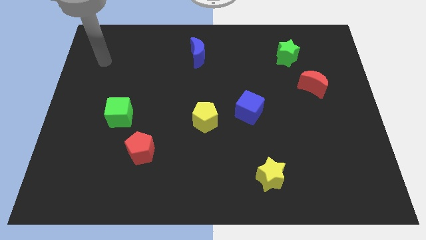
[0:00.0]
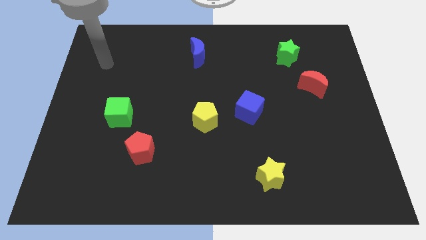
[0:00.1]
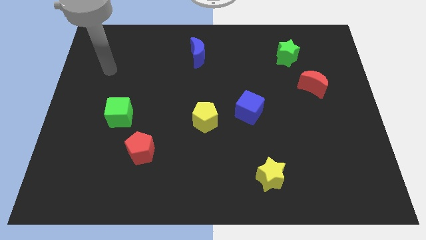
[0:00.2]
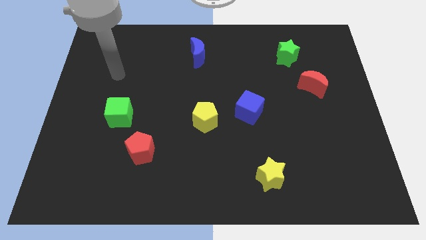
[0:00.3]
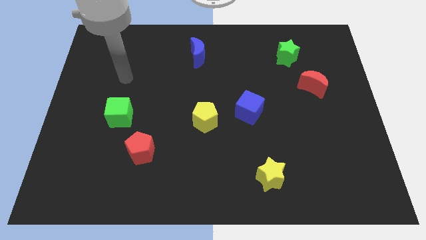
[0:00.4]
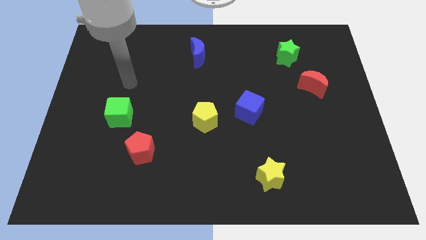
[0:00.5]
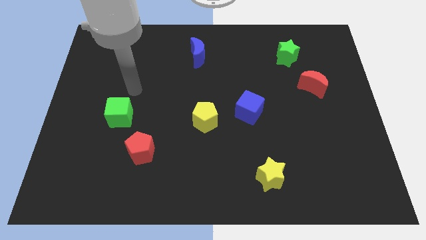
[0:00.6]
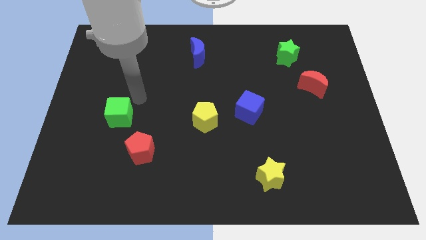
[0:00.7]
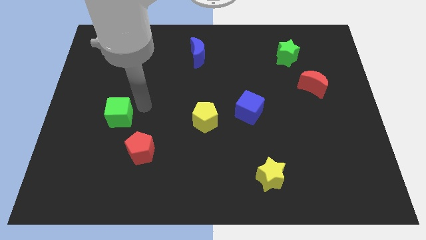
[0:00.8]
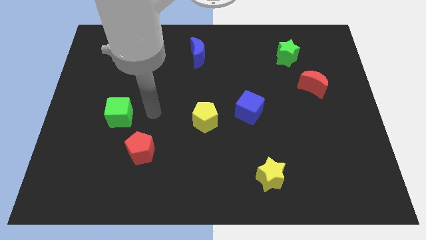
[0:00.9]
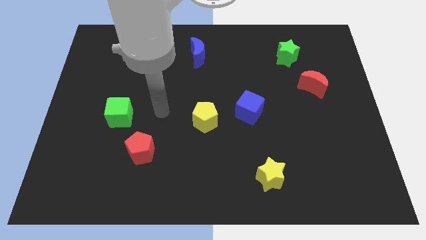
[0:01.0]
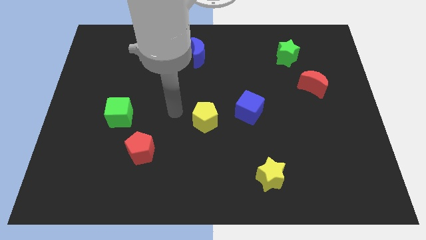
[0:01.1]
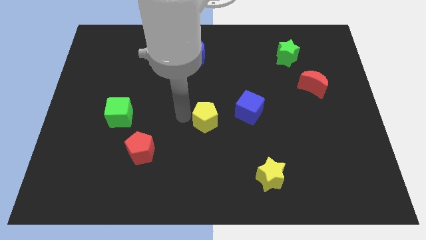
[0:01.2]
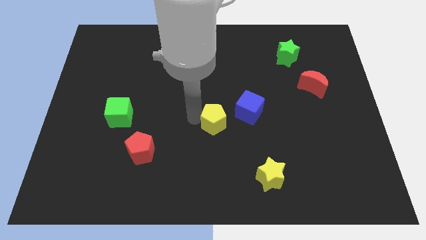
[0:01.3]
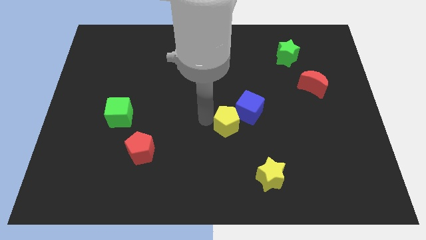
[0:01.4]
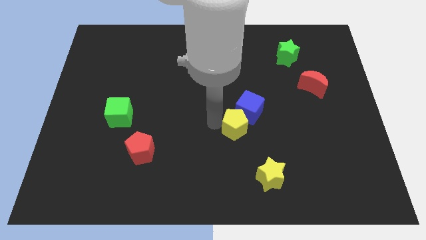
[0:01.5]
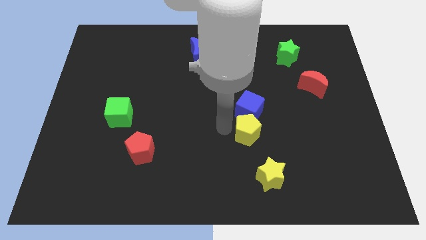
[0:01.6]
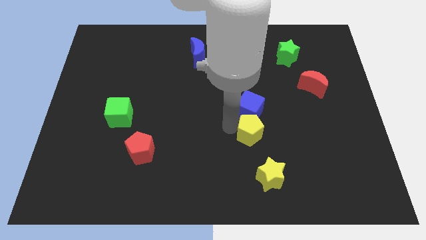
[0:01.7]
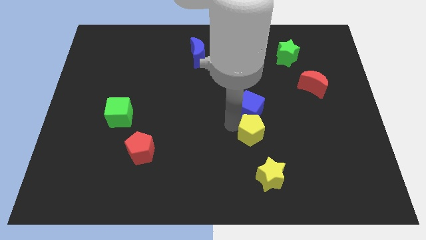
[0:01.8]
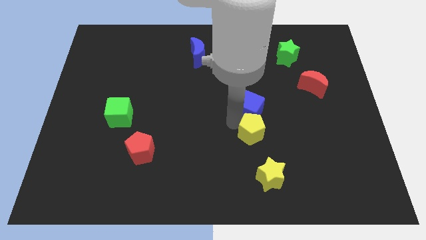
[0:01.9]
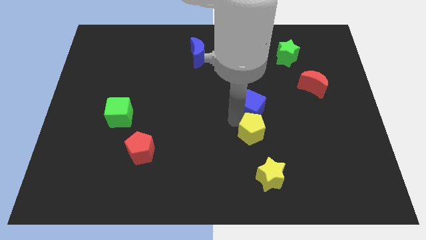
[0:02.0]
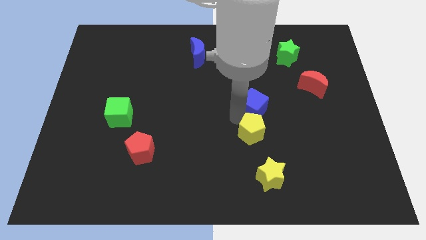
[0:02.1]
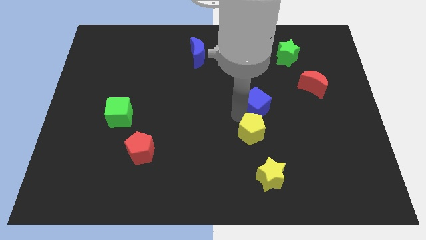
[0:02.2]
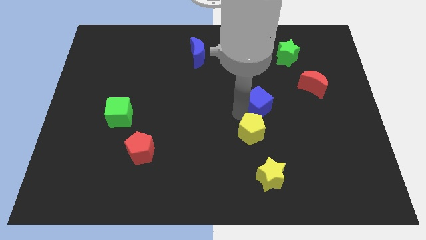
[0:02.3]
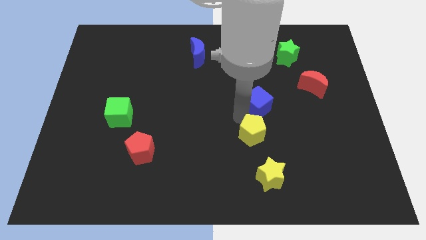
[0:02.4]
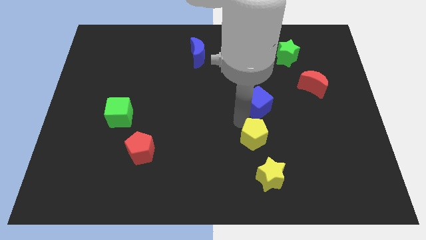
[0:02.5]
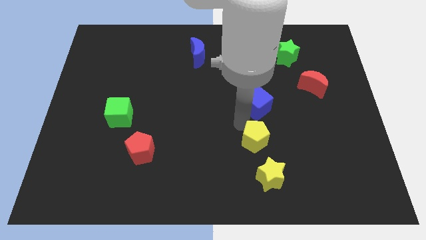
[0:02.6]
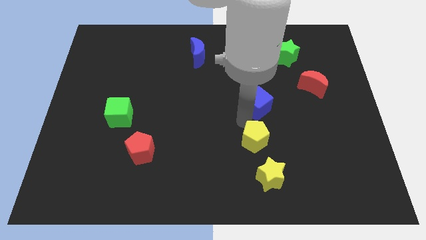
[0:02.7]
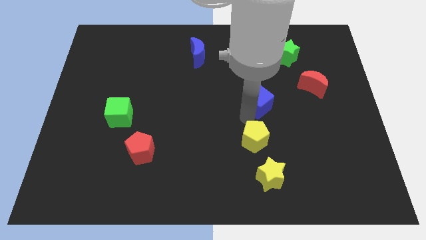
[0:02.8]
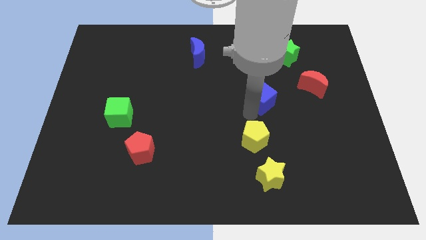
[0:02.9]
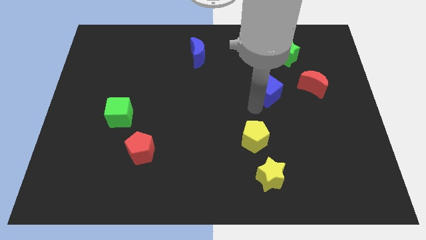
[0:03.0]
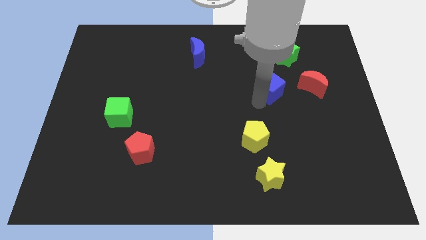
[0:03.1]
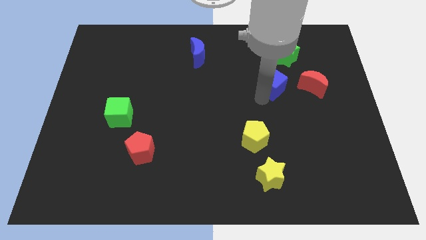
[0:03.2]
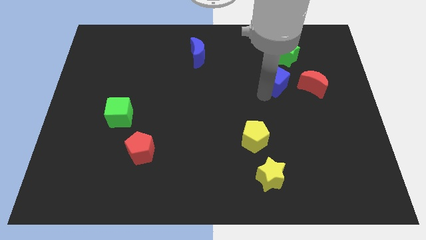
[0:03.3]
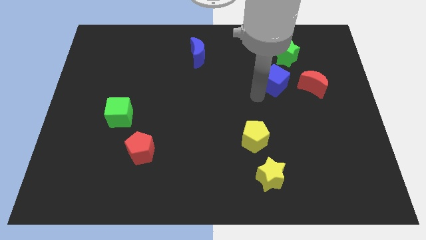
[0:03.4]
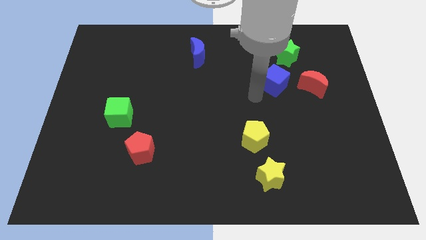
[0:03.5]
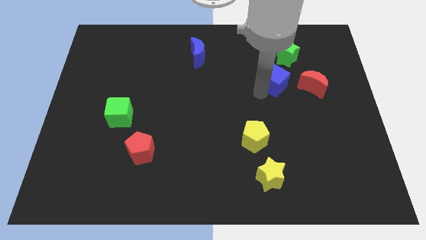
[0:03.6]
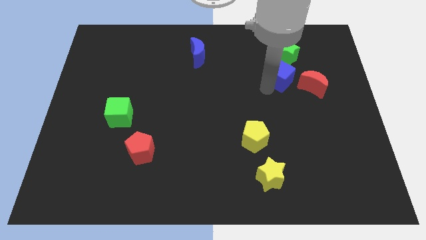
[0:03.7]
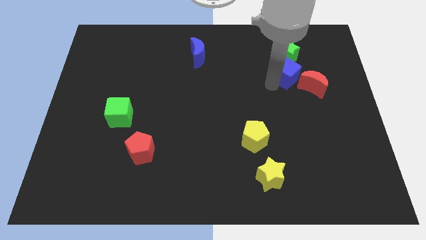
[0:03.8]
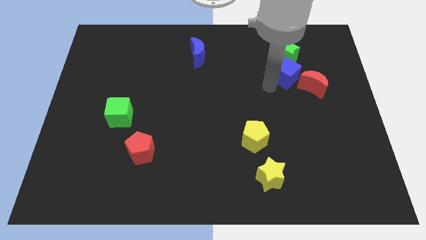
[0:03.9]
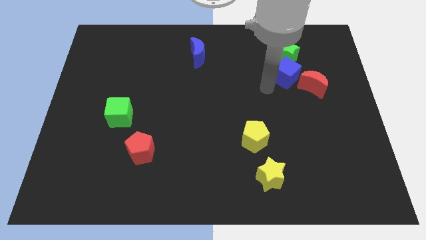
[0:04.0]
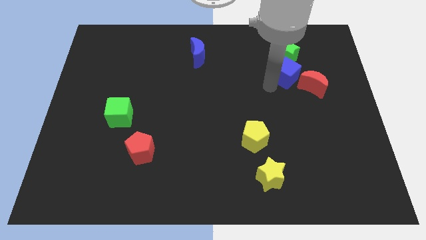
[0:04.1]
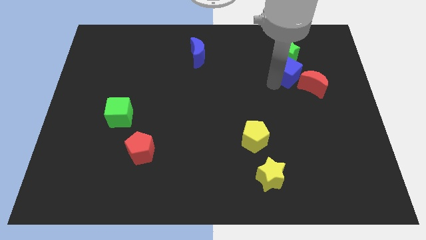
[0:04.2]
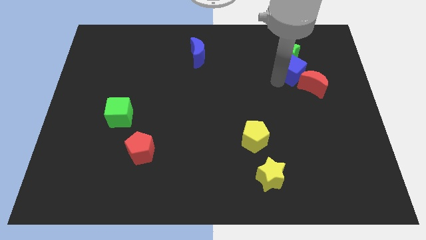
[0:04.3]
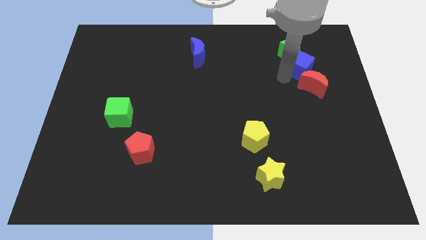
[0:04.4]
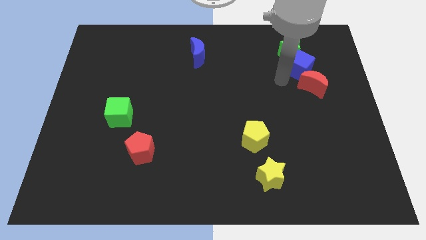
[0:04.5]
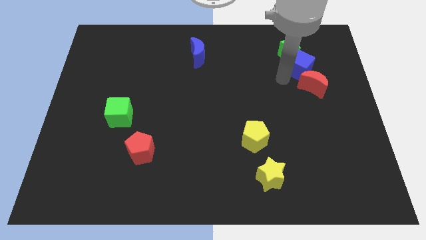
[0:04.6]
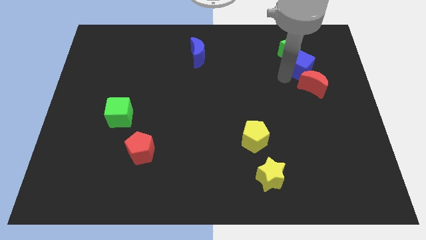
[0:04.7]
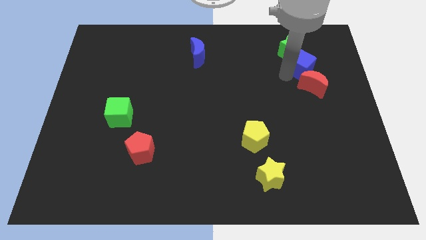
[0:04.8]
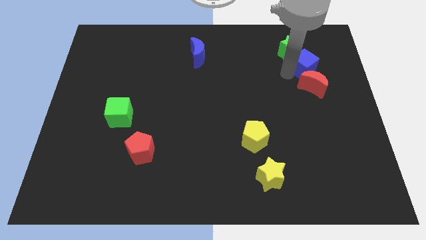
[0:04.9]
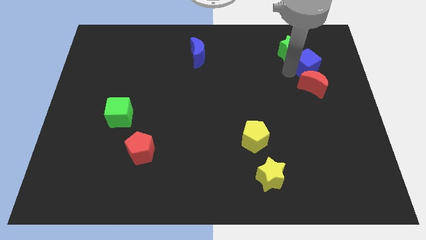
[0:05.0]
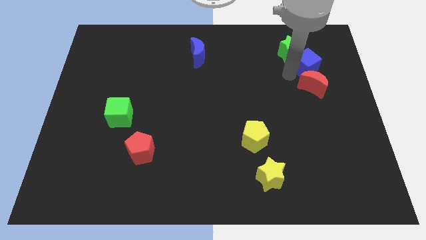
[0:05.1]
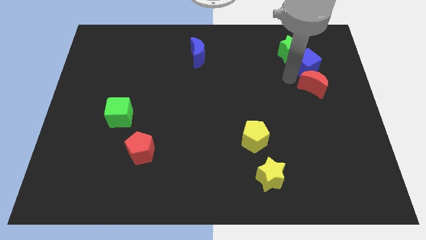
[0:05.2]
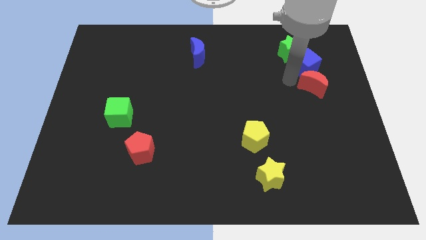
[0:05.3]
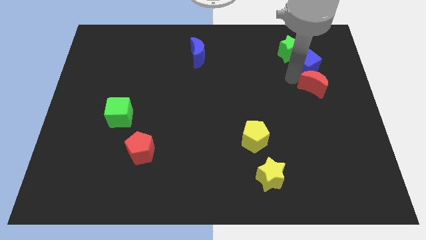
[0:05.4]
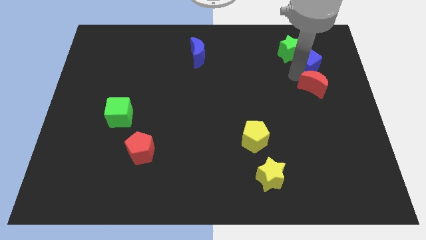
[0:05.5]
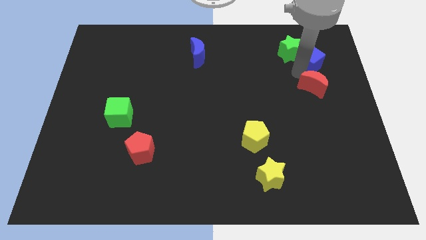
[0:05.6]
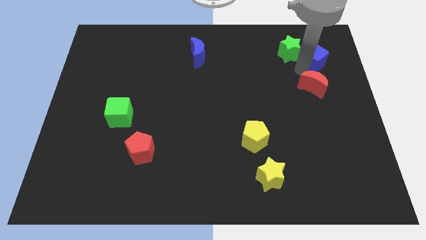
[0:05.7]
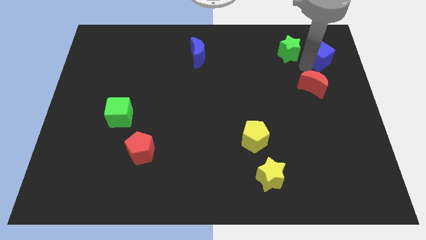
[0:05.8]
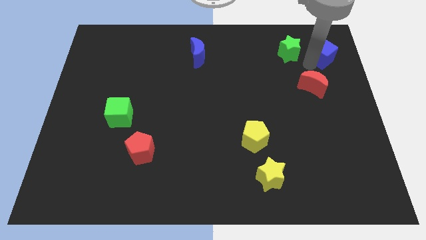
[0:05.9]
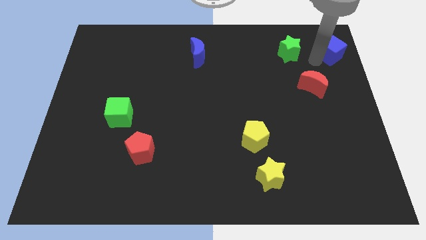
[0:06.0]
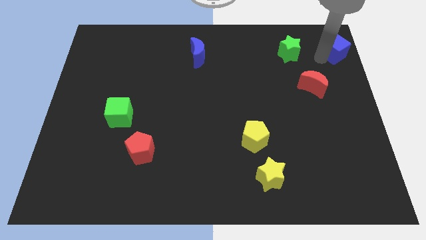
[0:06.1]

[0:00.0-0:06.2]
slide the blue cube to the top right of the board
